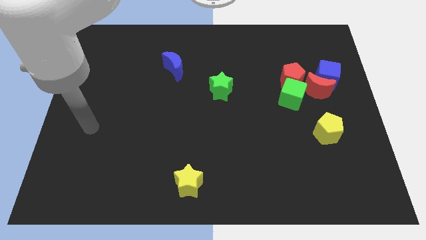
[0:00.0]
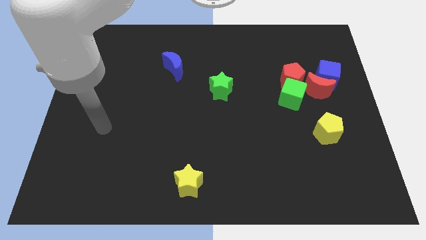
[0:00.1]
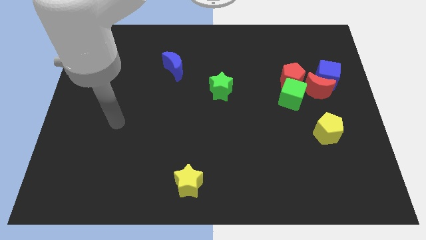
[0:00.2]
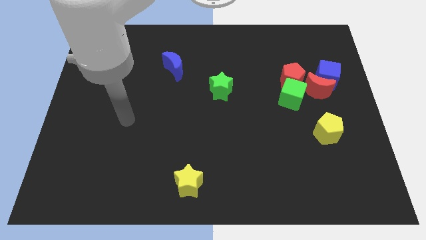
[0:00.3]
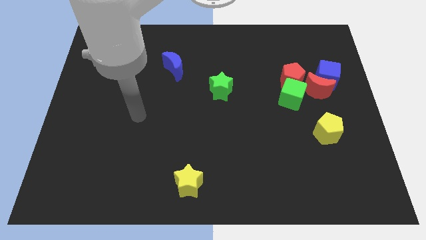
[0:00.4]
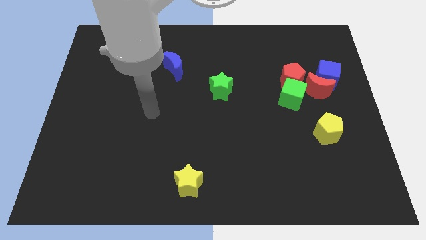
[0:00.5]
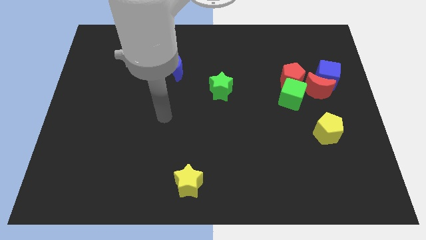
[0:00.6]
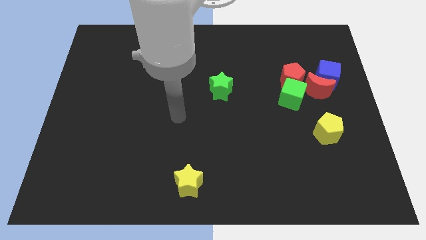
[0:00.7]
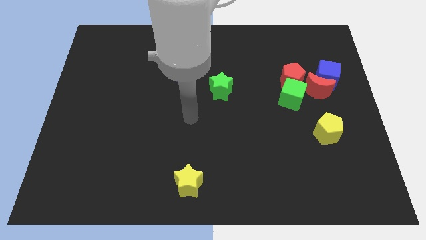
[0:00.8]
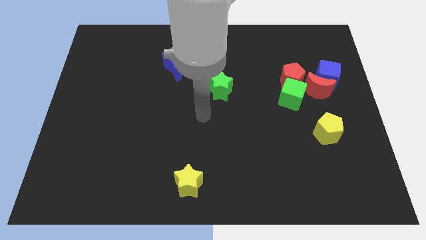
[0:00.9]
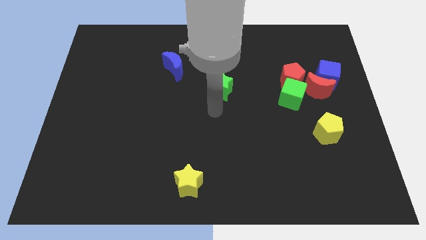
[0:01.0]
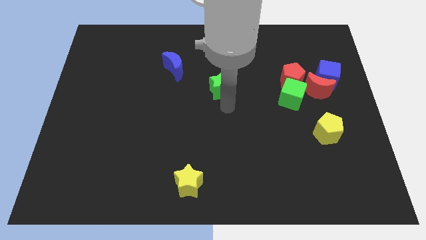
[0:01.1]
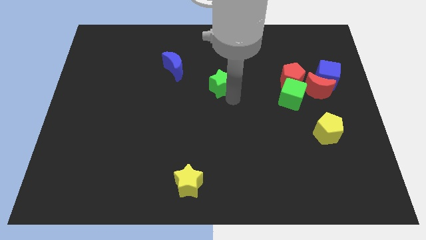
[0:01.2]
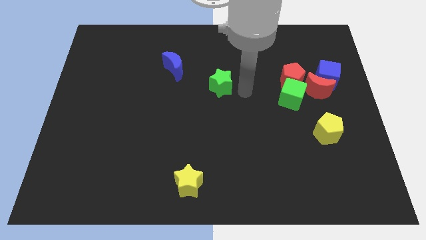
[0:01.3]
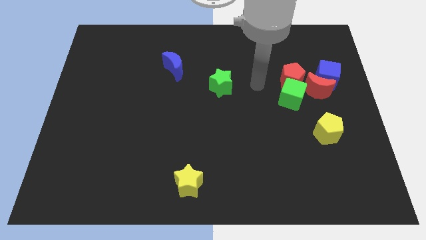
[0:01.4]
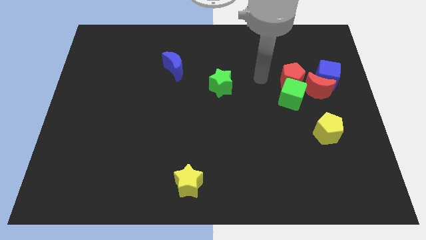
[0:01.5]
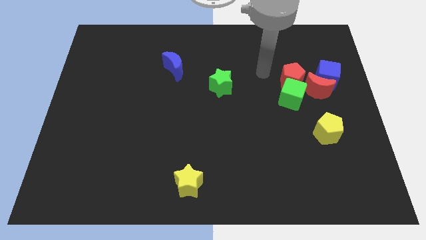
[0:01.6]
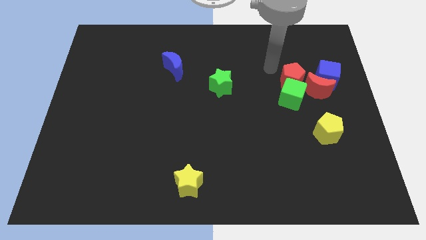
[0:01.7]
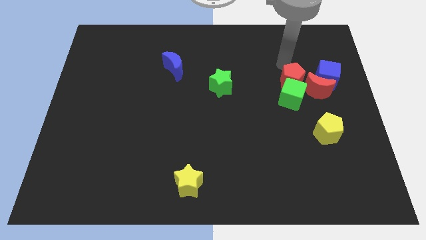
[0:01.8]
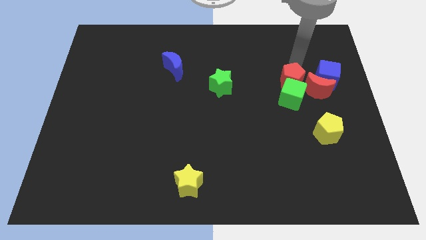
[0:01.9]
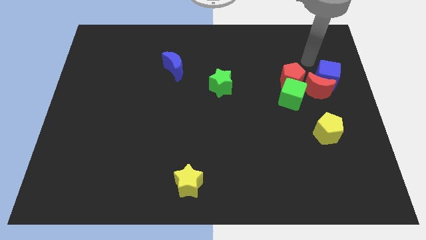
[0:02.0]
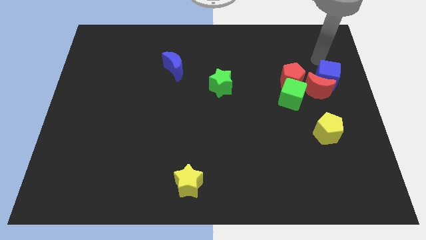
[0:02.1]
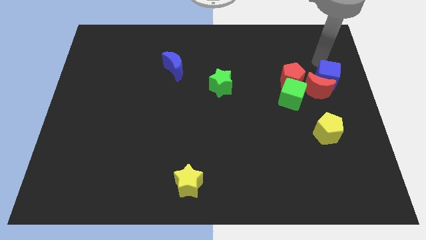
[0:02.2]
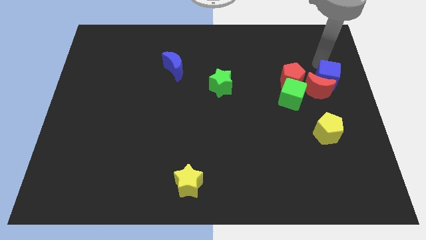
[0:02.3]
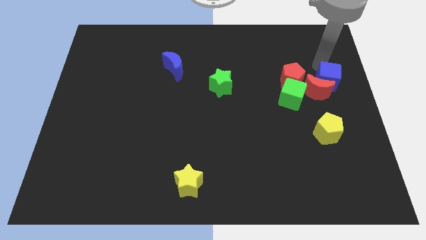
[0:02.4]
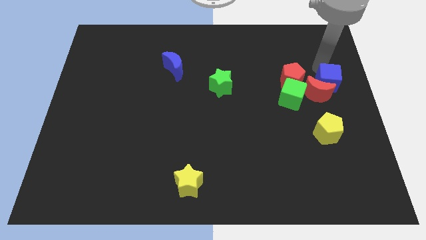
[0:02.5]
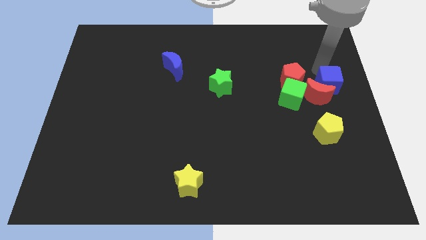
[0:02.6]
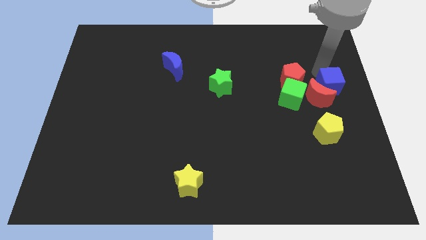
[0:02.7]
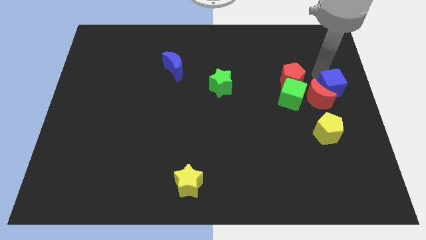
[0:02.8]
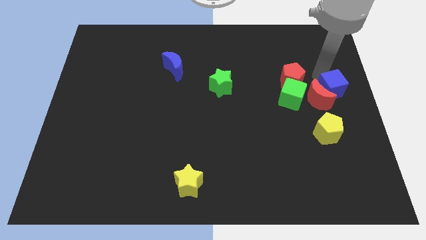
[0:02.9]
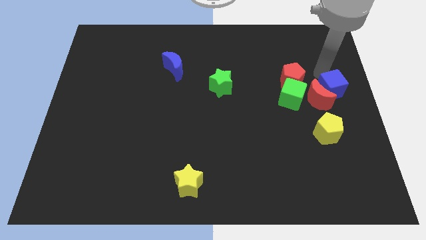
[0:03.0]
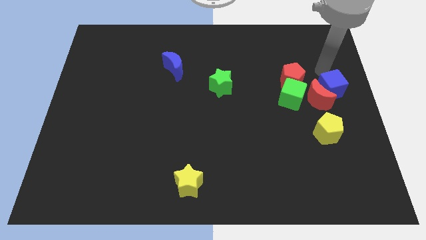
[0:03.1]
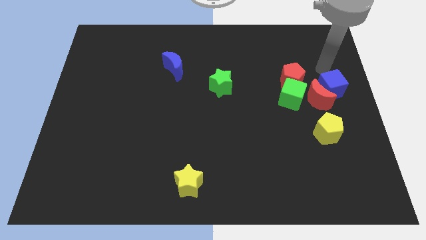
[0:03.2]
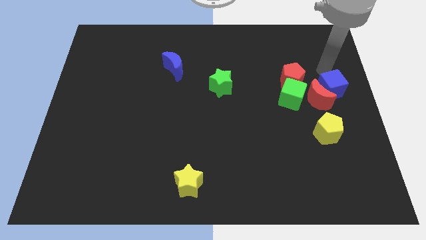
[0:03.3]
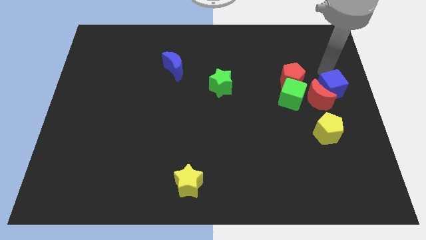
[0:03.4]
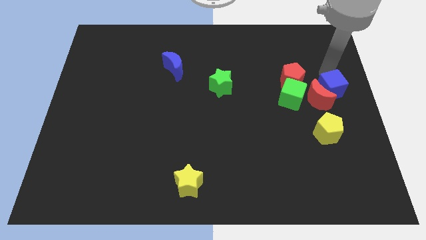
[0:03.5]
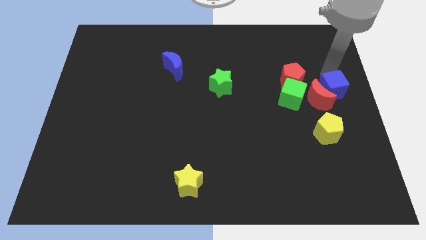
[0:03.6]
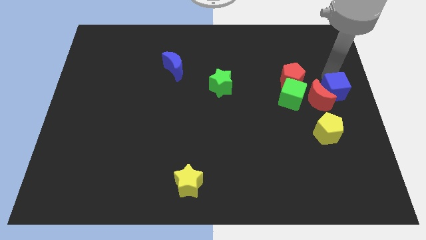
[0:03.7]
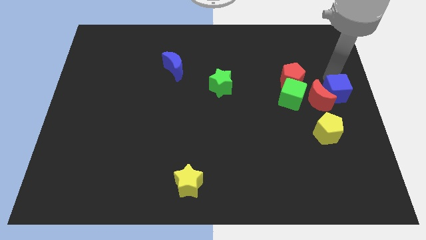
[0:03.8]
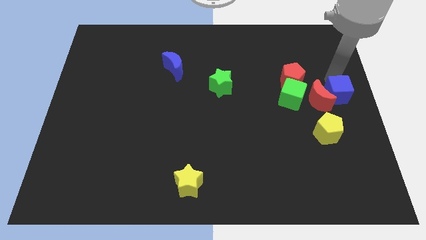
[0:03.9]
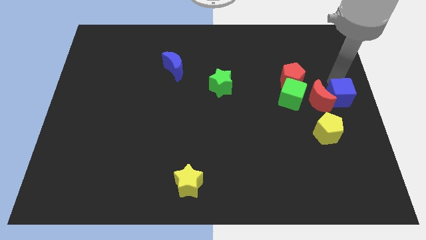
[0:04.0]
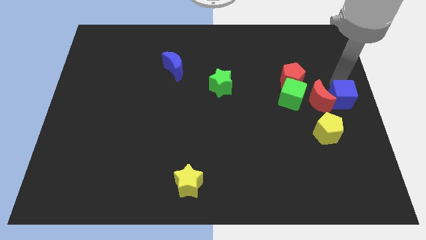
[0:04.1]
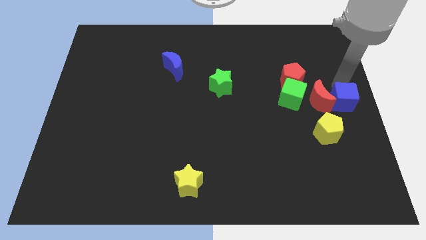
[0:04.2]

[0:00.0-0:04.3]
slightly push the blue cube downwards

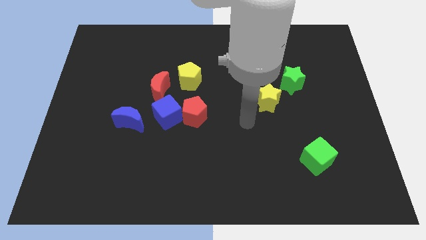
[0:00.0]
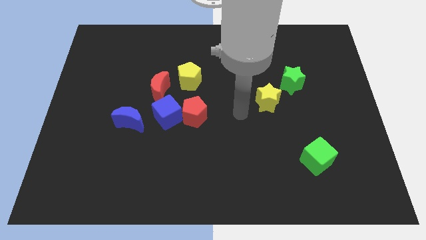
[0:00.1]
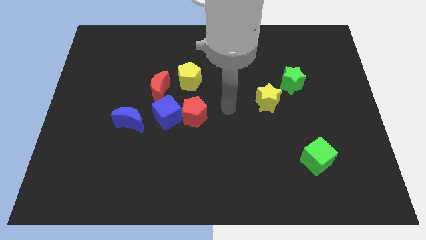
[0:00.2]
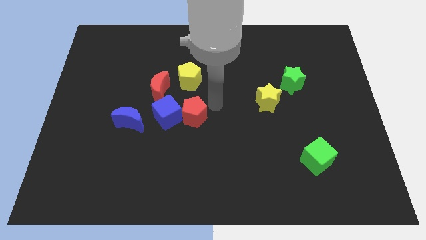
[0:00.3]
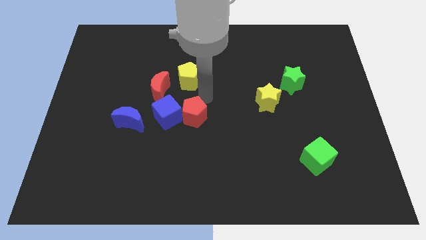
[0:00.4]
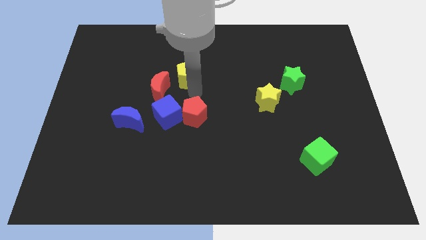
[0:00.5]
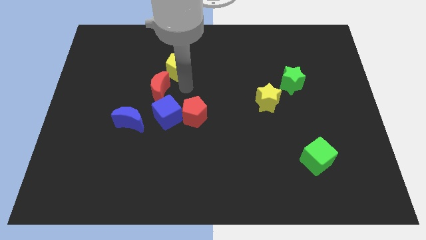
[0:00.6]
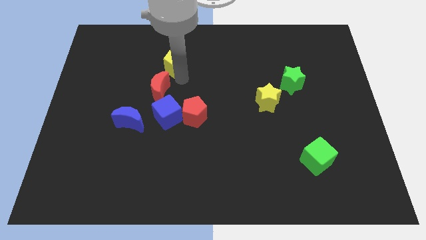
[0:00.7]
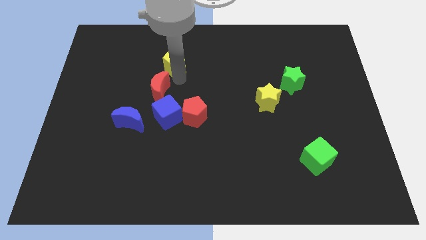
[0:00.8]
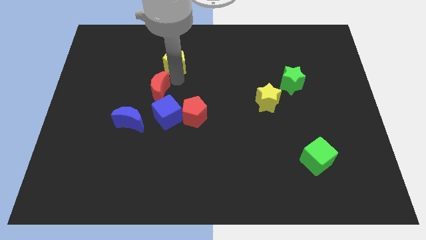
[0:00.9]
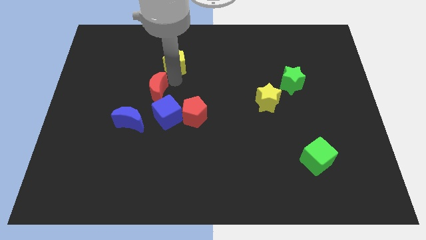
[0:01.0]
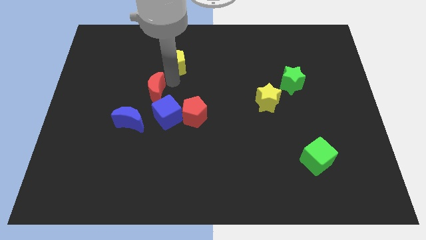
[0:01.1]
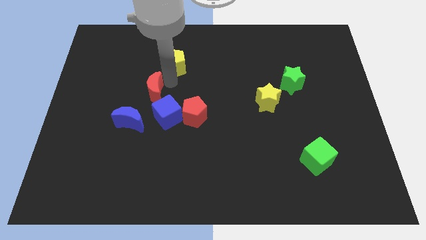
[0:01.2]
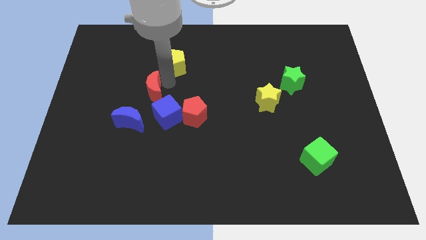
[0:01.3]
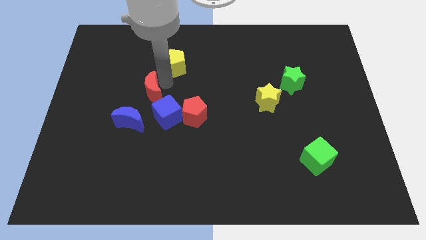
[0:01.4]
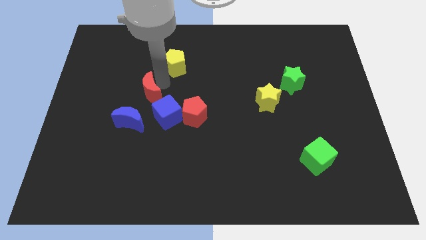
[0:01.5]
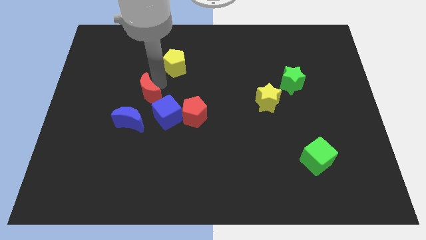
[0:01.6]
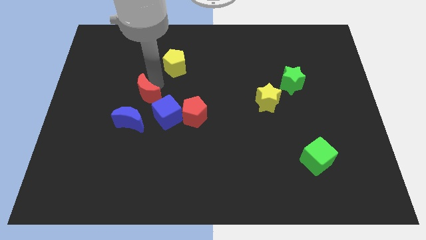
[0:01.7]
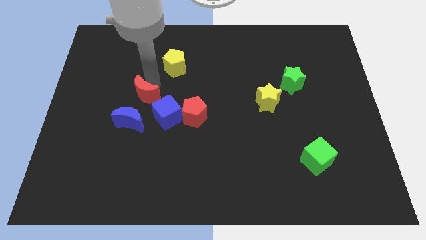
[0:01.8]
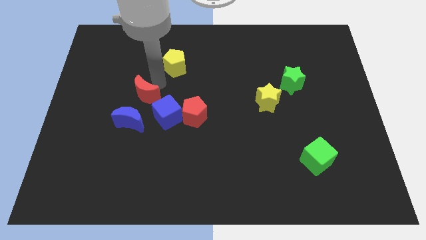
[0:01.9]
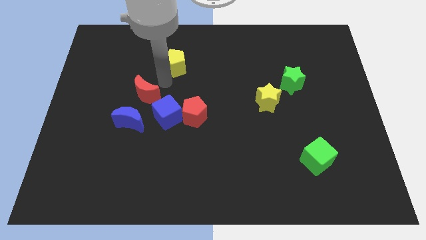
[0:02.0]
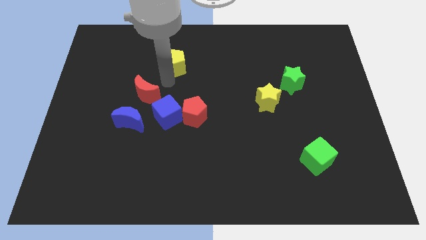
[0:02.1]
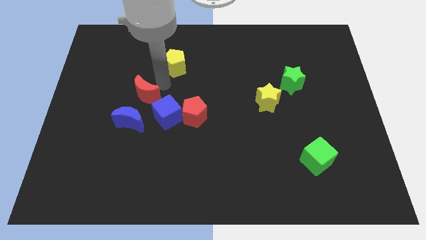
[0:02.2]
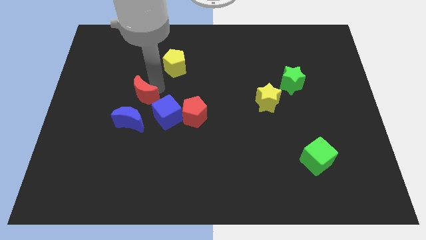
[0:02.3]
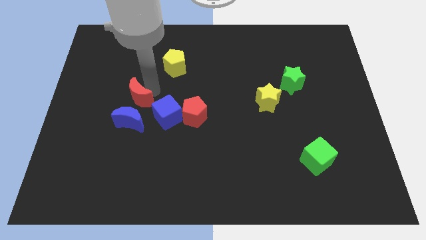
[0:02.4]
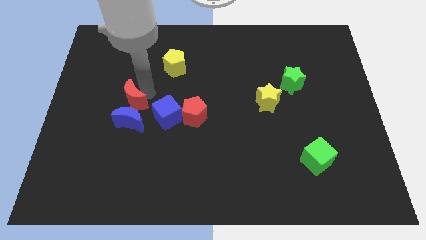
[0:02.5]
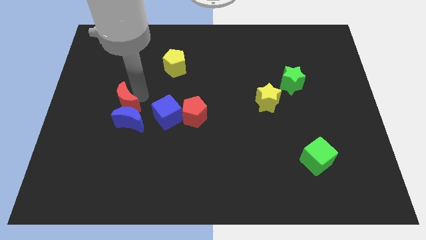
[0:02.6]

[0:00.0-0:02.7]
move the red moon a little down and left diagonally

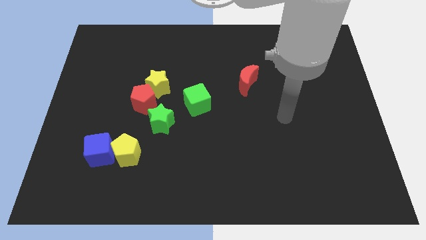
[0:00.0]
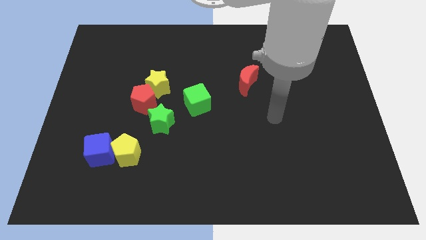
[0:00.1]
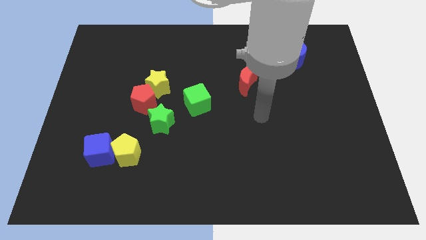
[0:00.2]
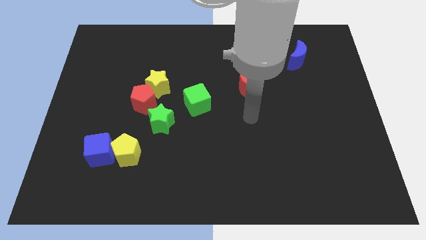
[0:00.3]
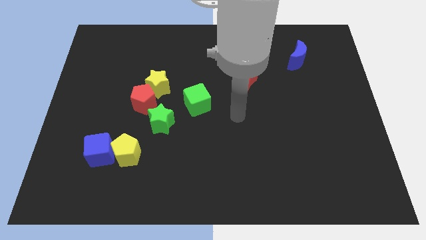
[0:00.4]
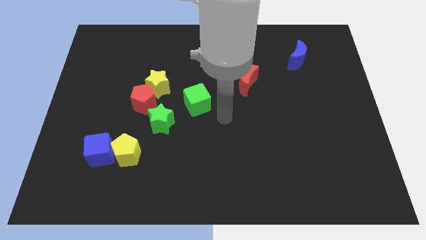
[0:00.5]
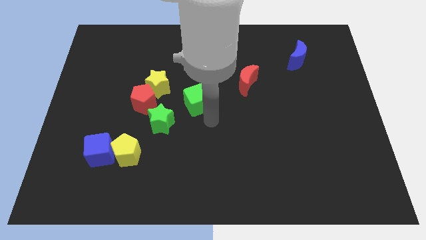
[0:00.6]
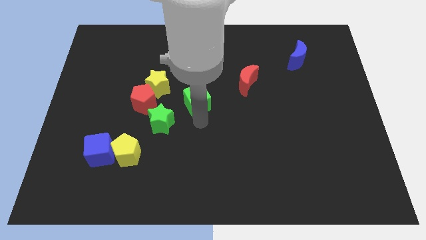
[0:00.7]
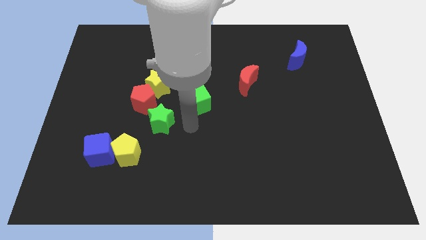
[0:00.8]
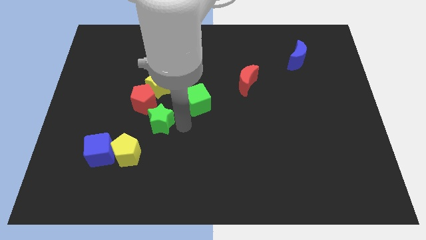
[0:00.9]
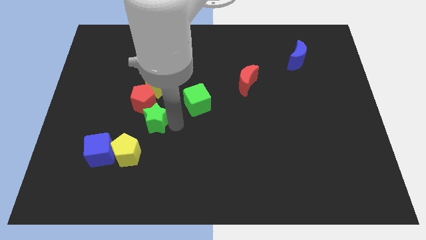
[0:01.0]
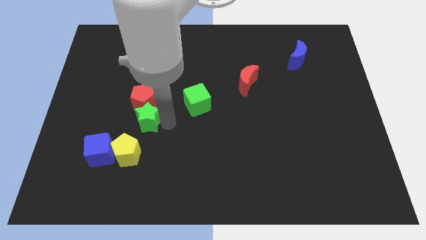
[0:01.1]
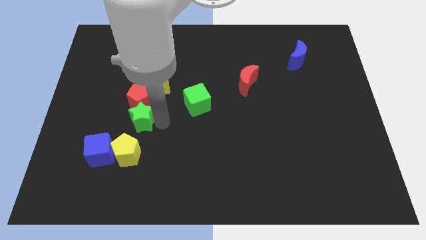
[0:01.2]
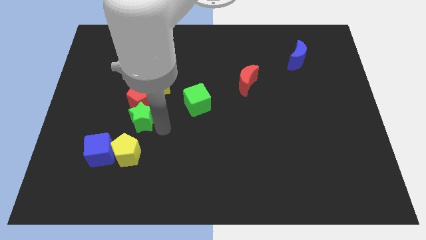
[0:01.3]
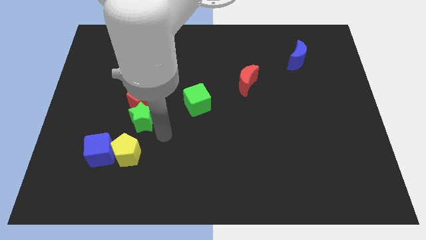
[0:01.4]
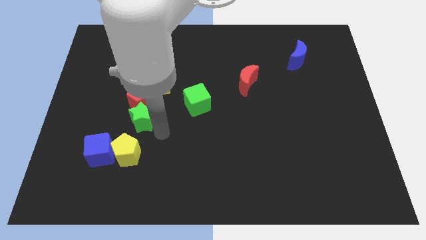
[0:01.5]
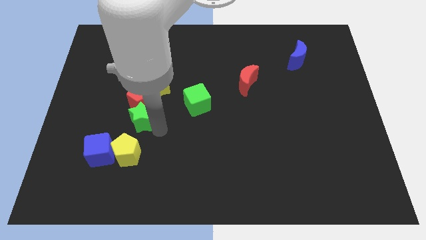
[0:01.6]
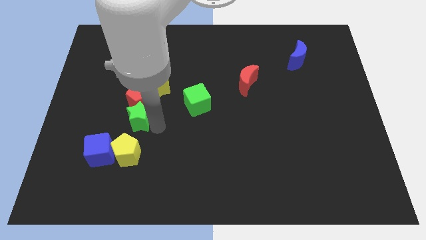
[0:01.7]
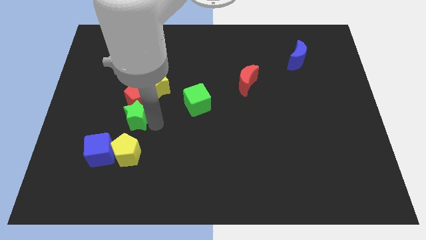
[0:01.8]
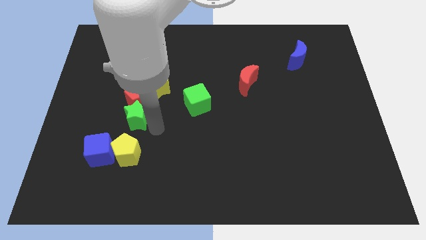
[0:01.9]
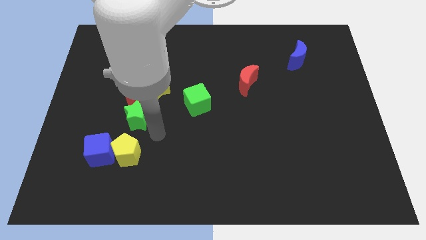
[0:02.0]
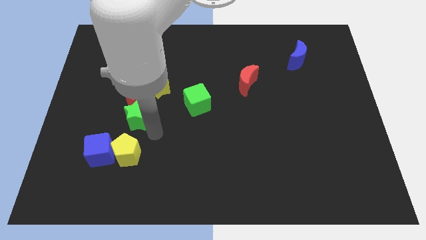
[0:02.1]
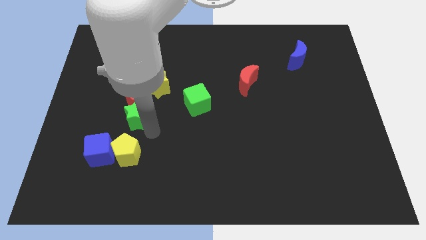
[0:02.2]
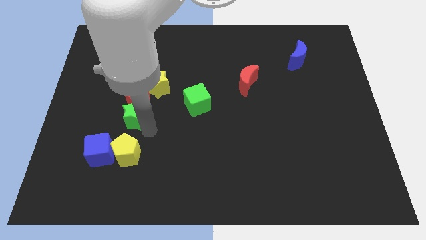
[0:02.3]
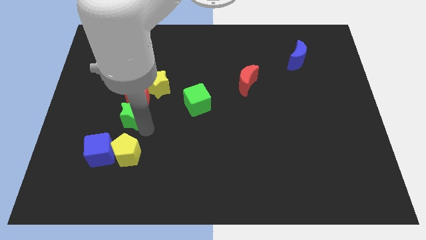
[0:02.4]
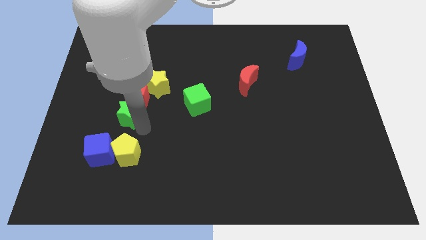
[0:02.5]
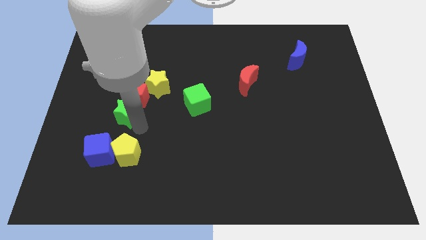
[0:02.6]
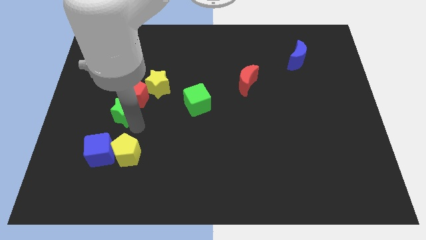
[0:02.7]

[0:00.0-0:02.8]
push the green star diagonally up and to the left a bit
